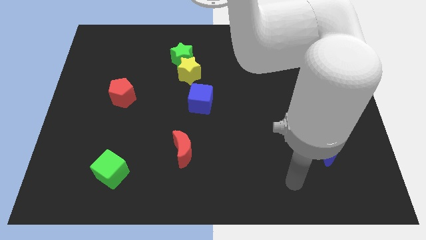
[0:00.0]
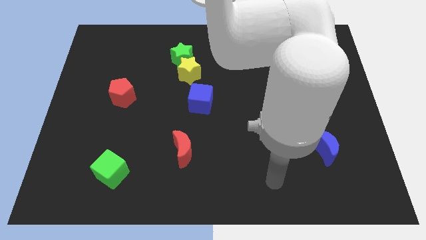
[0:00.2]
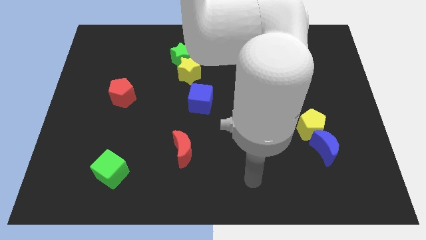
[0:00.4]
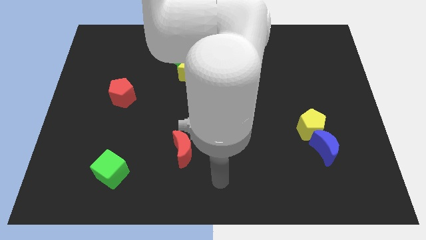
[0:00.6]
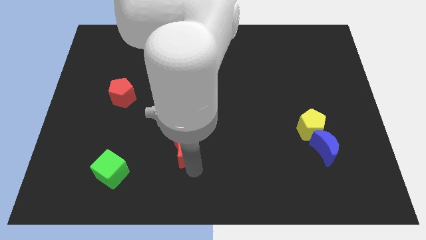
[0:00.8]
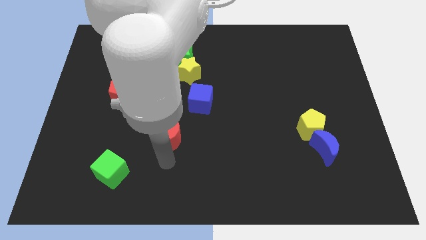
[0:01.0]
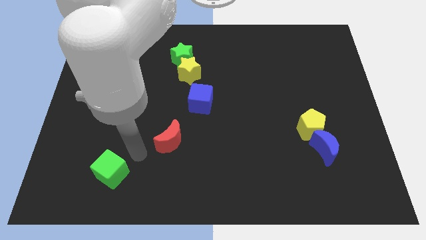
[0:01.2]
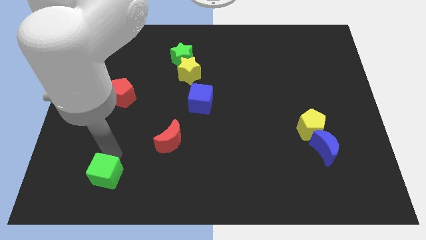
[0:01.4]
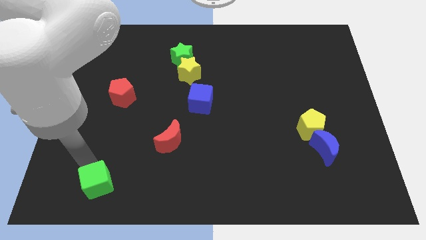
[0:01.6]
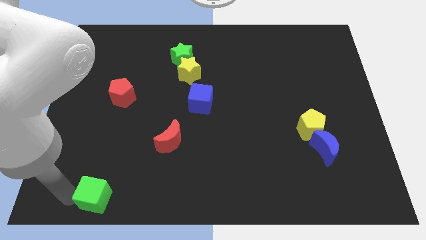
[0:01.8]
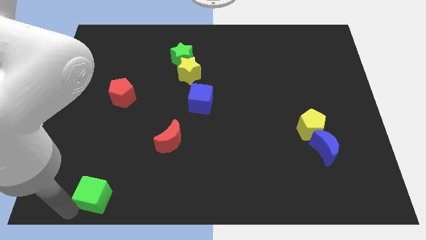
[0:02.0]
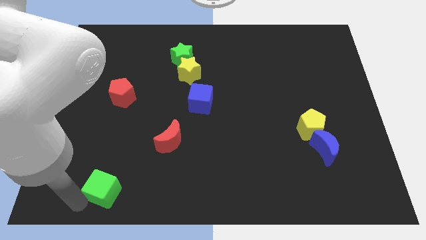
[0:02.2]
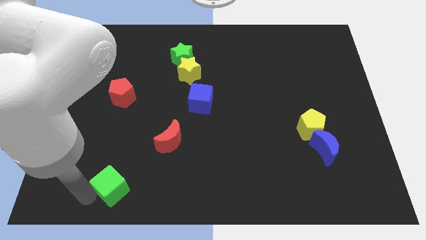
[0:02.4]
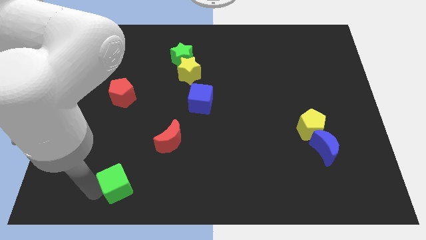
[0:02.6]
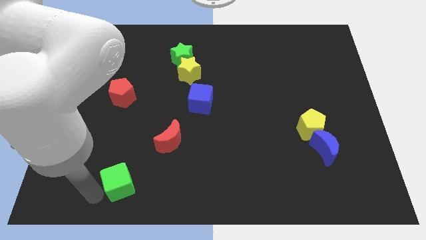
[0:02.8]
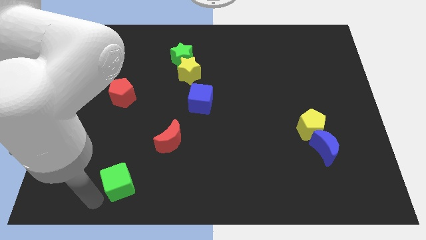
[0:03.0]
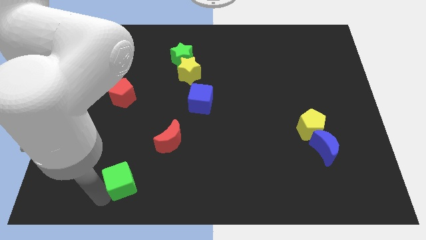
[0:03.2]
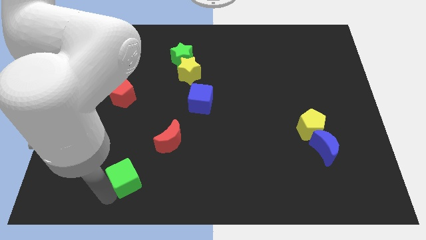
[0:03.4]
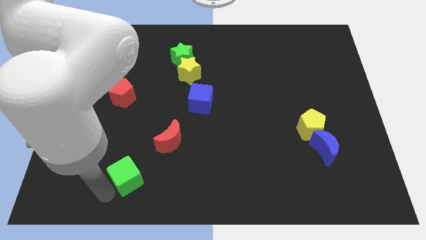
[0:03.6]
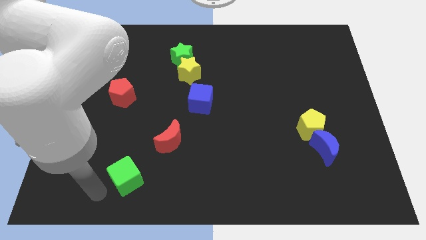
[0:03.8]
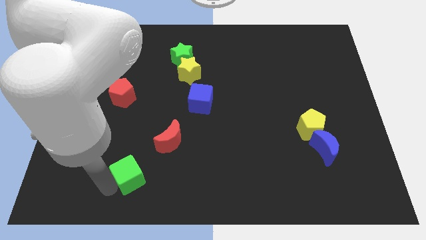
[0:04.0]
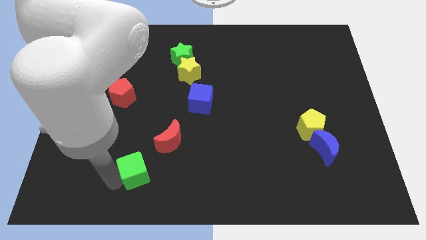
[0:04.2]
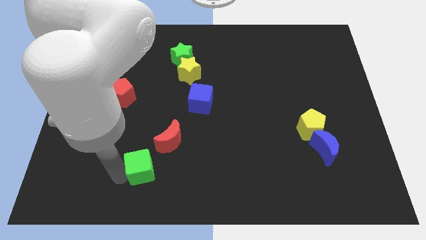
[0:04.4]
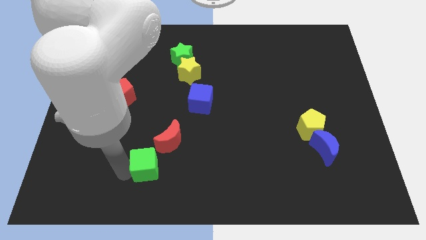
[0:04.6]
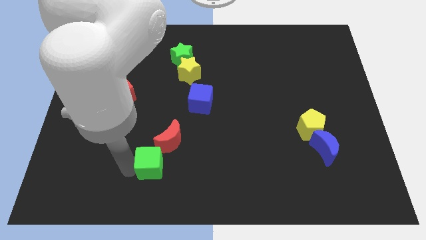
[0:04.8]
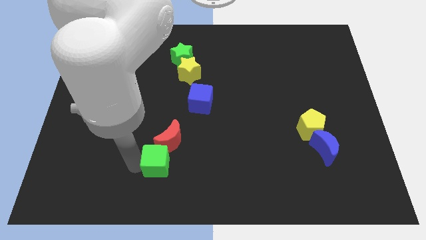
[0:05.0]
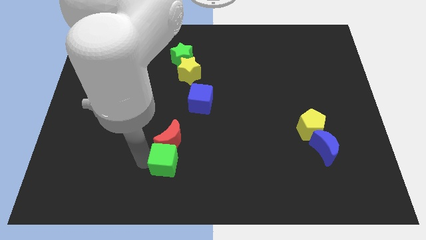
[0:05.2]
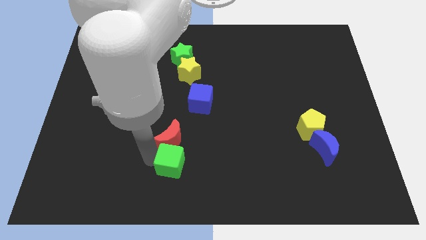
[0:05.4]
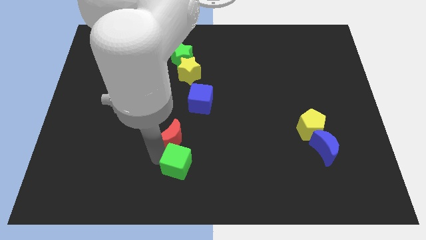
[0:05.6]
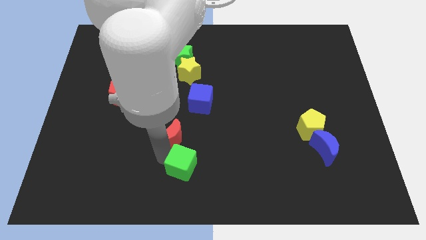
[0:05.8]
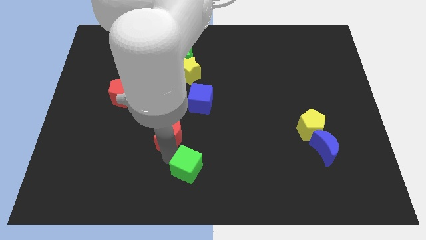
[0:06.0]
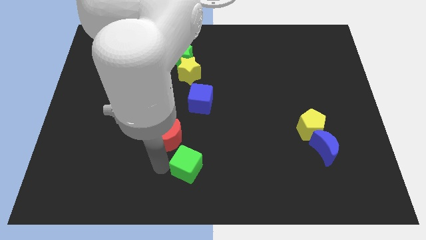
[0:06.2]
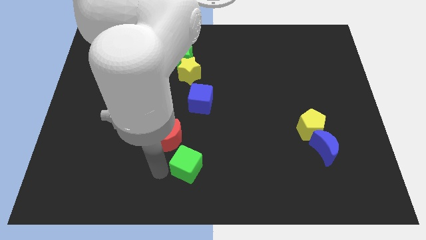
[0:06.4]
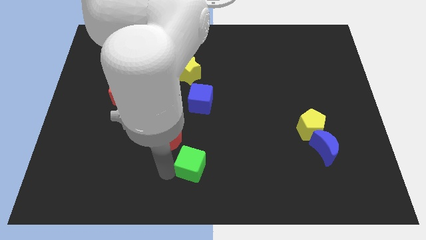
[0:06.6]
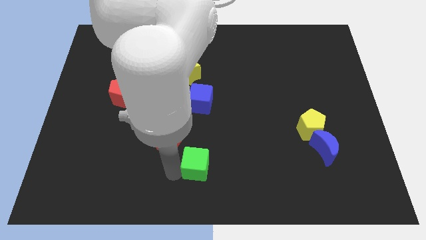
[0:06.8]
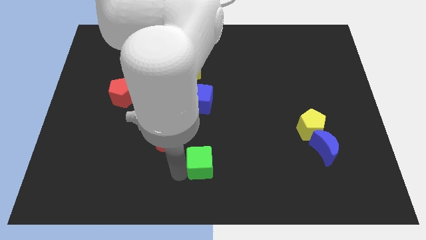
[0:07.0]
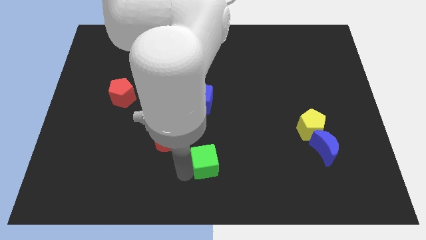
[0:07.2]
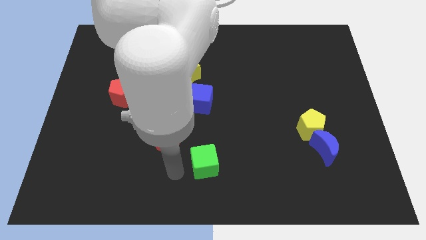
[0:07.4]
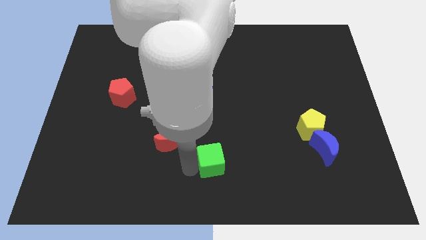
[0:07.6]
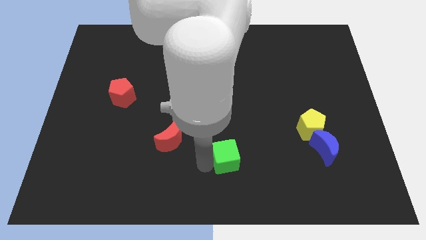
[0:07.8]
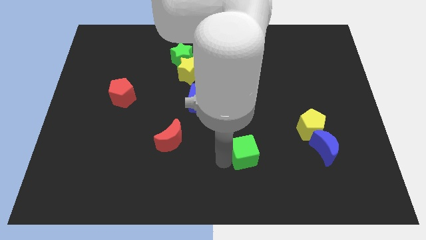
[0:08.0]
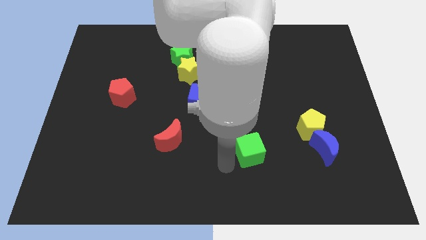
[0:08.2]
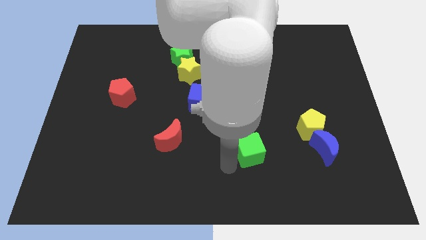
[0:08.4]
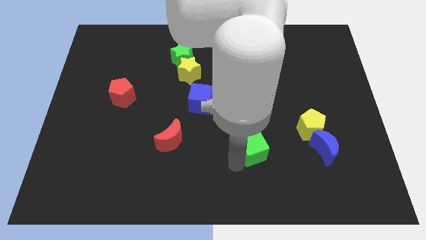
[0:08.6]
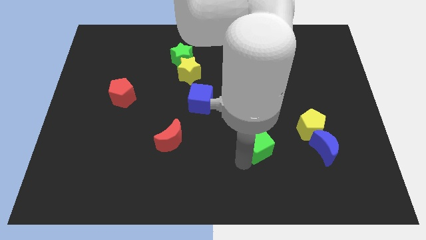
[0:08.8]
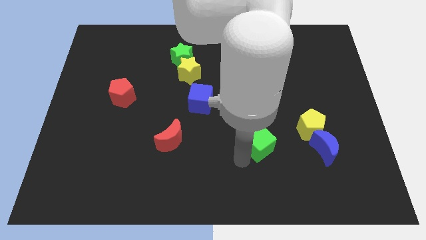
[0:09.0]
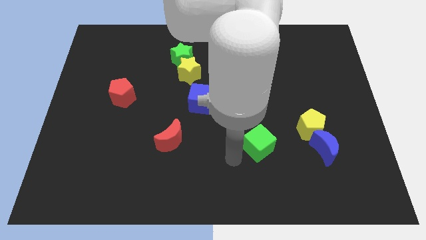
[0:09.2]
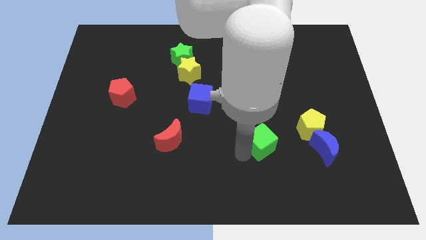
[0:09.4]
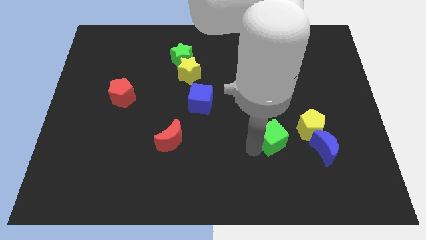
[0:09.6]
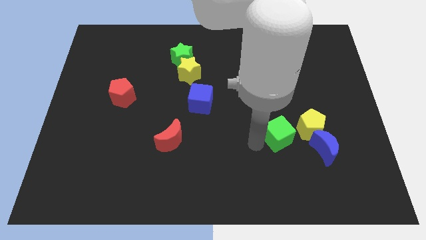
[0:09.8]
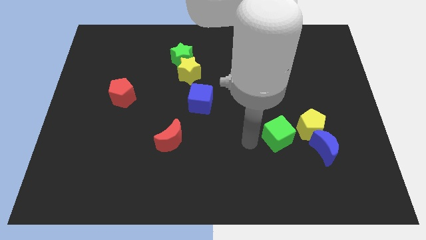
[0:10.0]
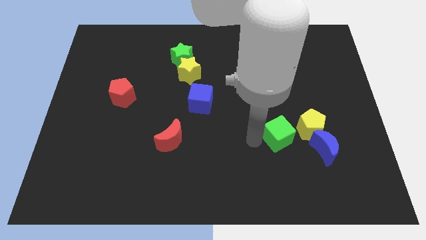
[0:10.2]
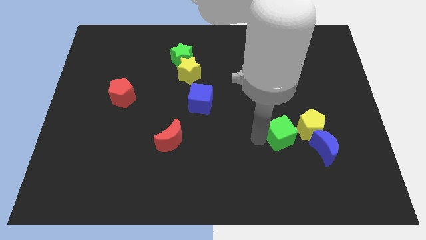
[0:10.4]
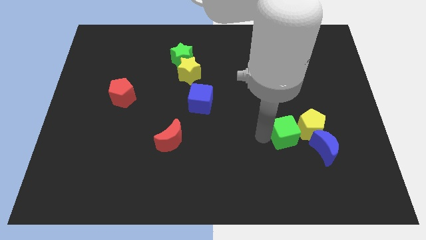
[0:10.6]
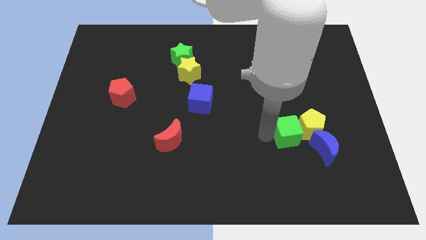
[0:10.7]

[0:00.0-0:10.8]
slide the green cube towards the yellow pentagon

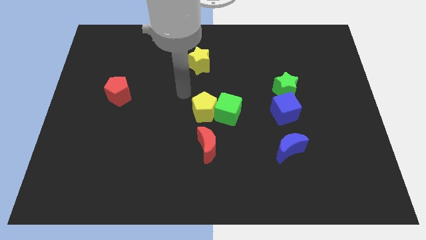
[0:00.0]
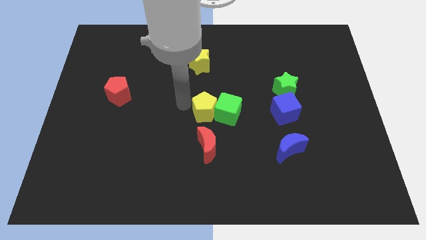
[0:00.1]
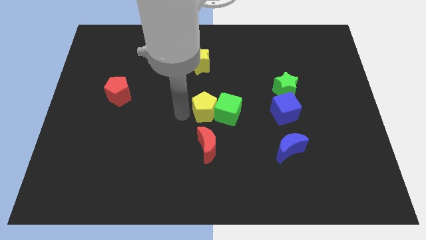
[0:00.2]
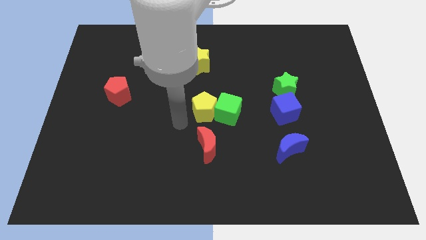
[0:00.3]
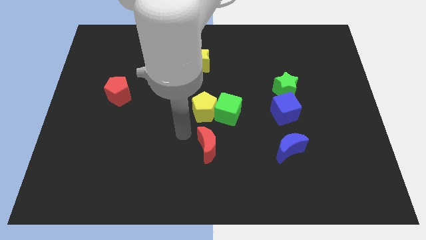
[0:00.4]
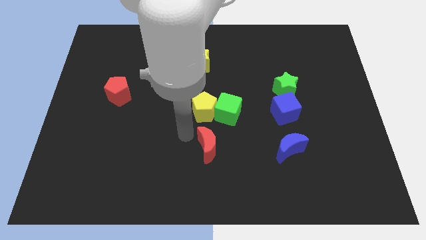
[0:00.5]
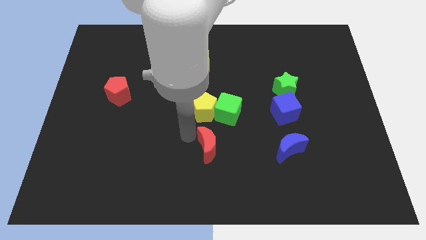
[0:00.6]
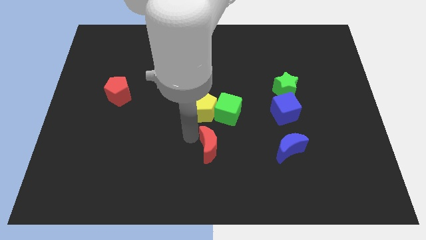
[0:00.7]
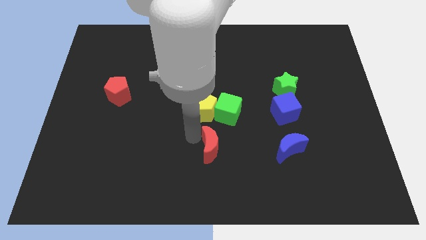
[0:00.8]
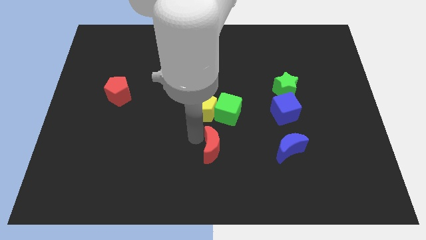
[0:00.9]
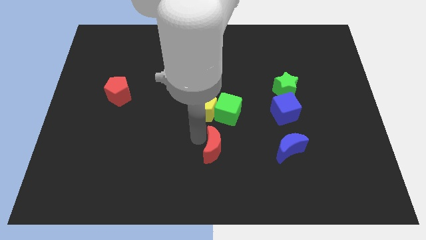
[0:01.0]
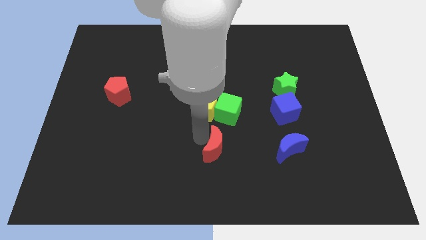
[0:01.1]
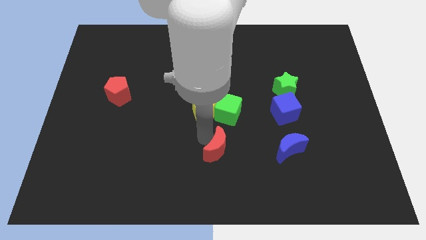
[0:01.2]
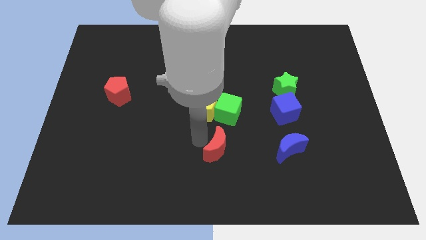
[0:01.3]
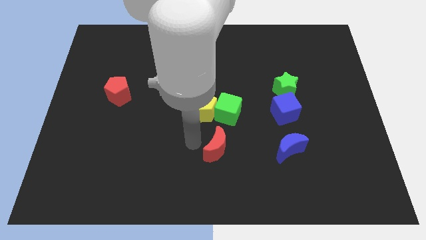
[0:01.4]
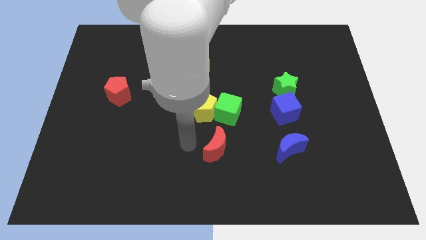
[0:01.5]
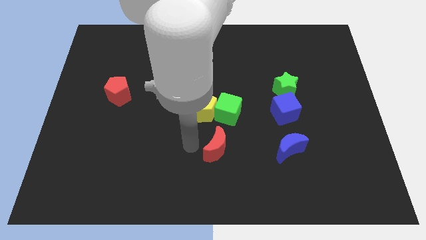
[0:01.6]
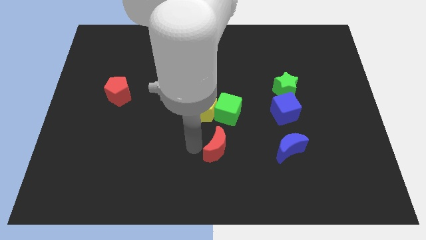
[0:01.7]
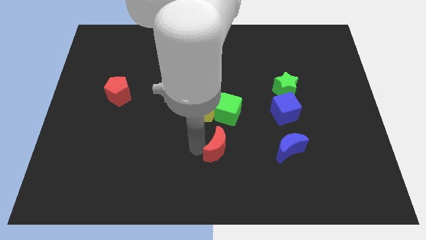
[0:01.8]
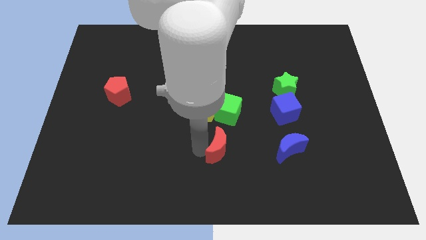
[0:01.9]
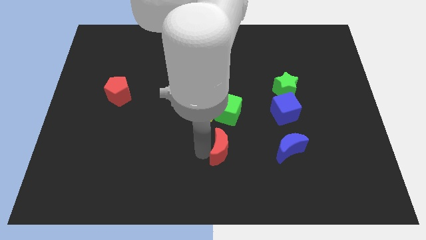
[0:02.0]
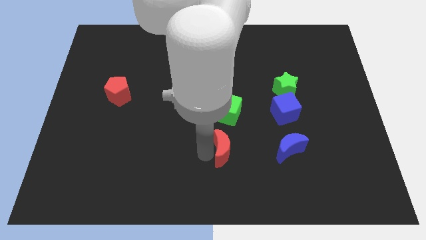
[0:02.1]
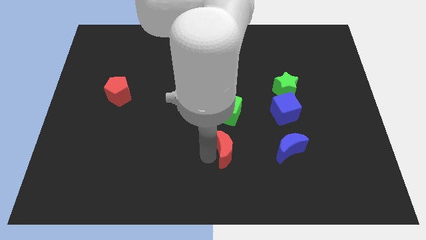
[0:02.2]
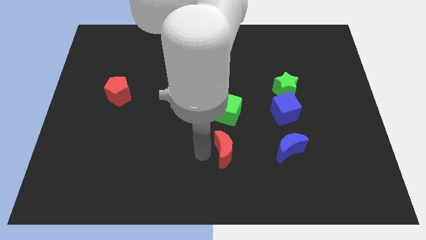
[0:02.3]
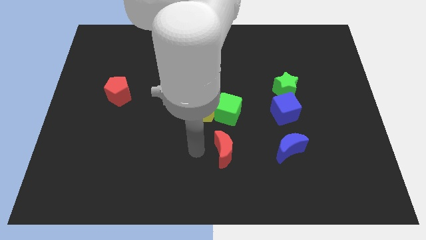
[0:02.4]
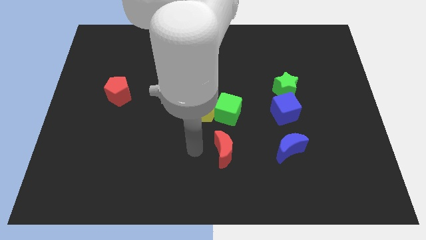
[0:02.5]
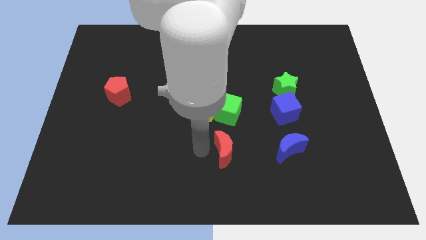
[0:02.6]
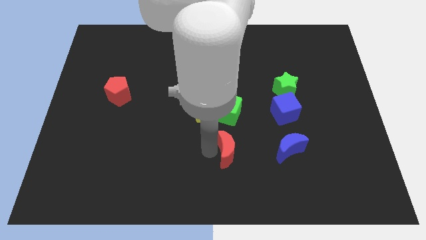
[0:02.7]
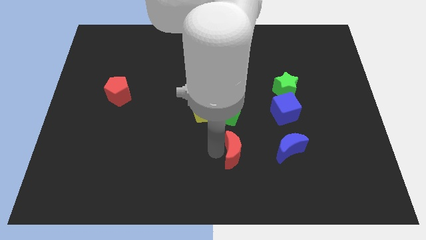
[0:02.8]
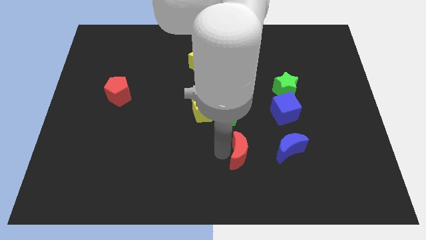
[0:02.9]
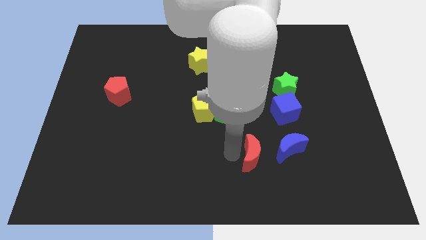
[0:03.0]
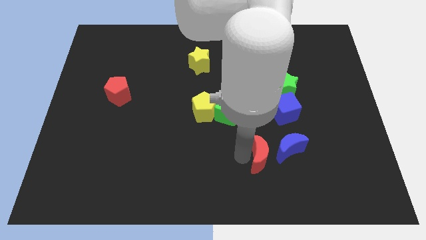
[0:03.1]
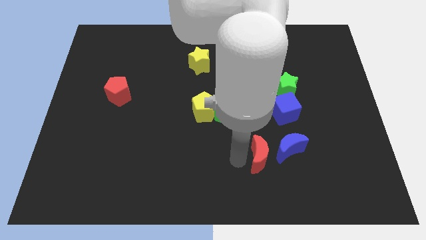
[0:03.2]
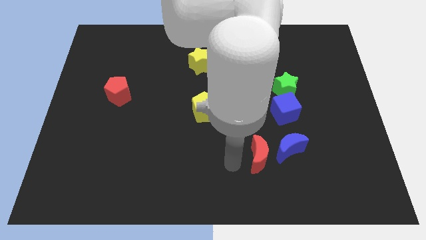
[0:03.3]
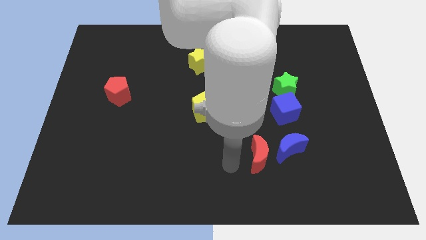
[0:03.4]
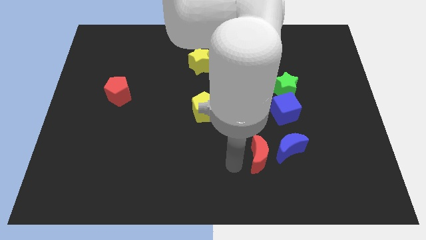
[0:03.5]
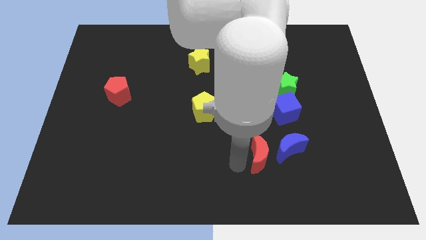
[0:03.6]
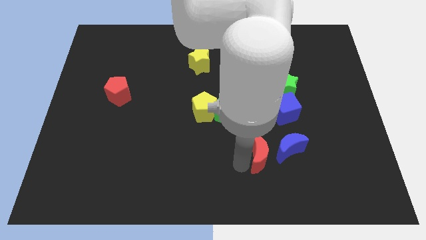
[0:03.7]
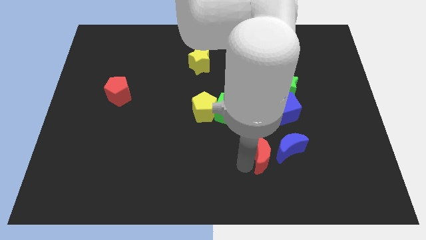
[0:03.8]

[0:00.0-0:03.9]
push the red moon towards the blue moon
